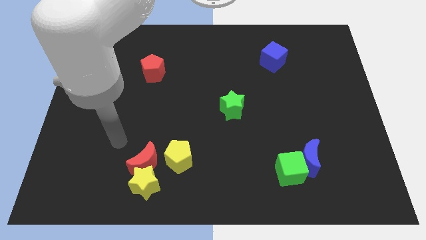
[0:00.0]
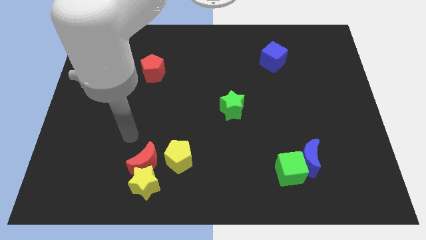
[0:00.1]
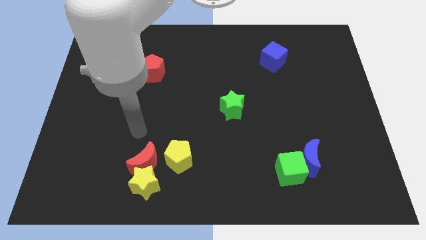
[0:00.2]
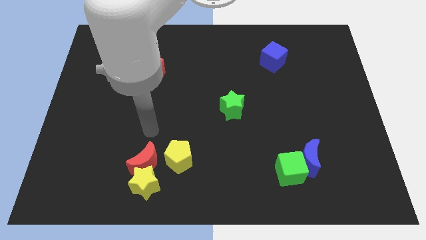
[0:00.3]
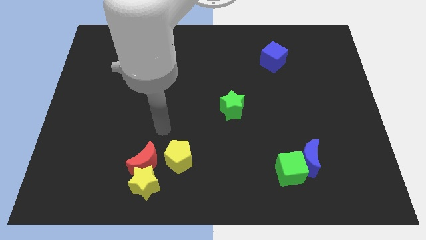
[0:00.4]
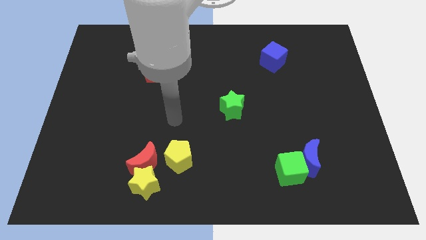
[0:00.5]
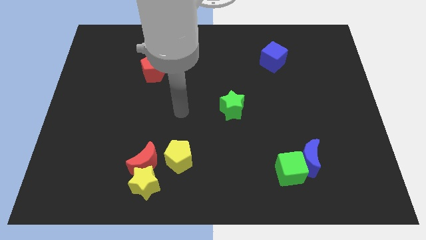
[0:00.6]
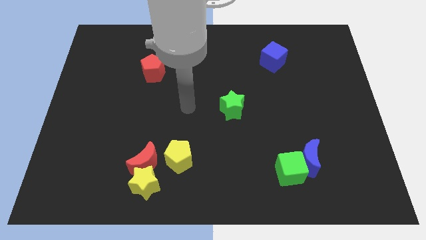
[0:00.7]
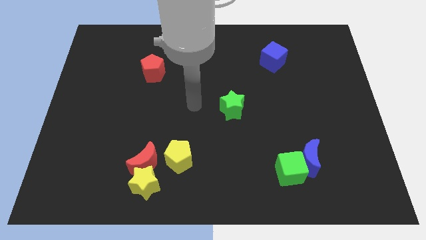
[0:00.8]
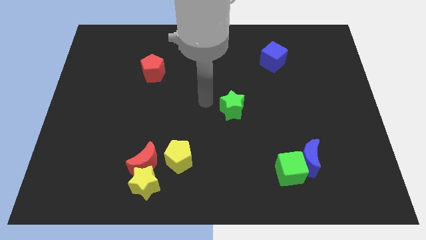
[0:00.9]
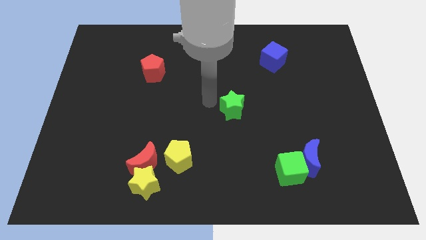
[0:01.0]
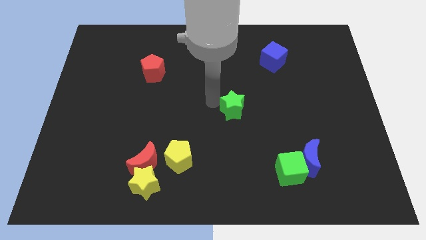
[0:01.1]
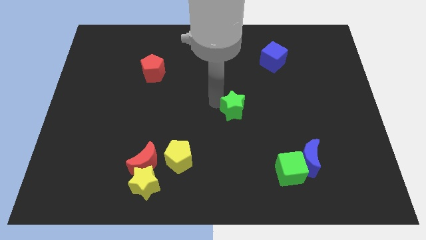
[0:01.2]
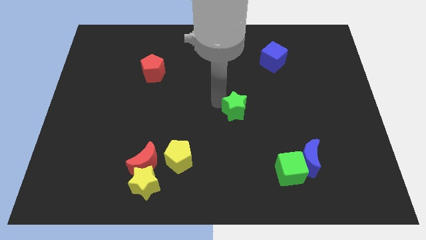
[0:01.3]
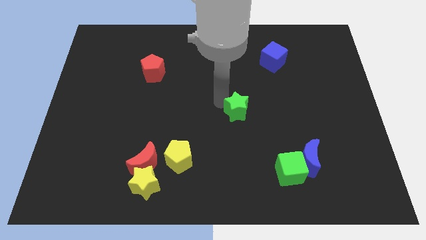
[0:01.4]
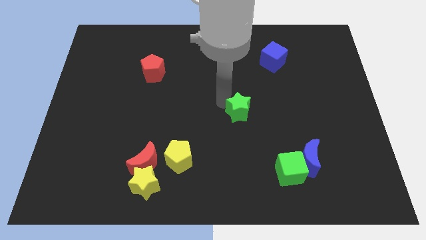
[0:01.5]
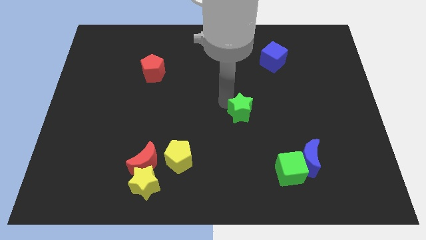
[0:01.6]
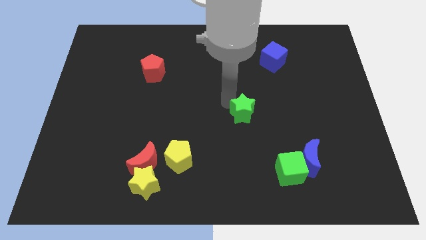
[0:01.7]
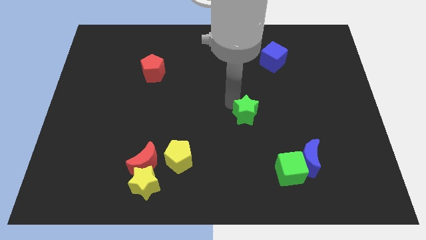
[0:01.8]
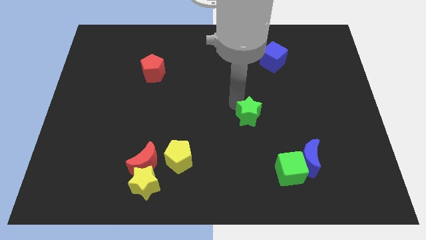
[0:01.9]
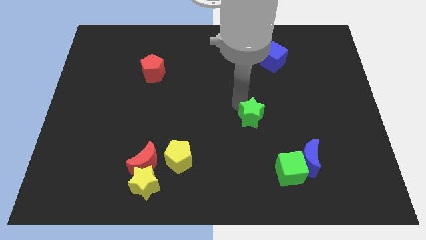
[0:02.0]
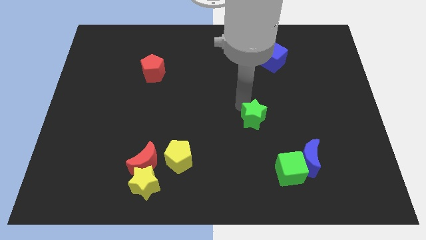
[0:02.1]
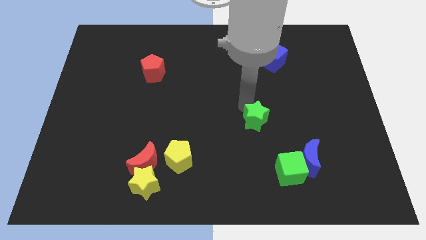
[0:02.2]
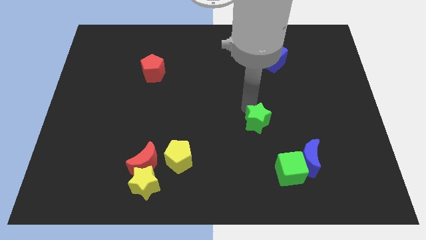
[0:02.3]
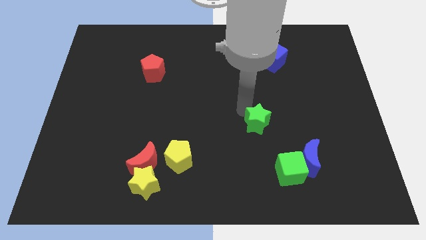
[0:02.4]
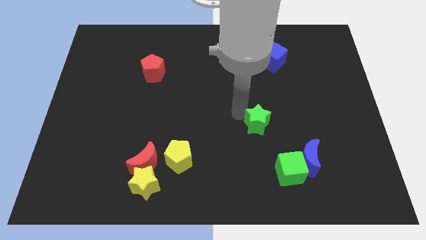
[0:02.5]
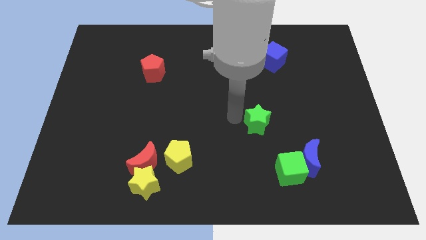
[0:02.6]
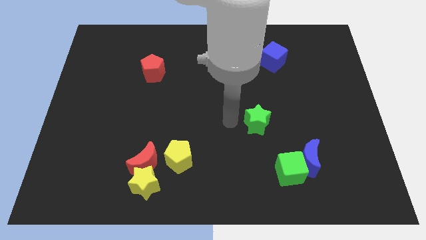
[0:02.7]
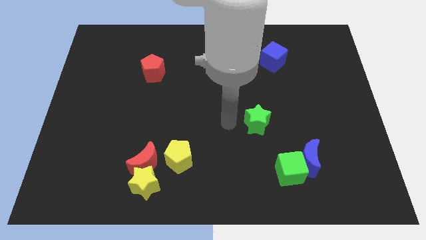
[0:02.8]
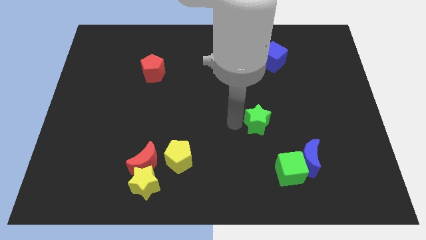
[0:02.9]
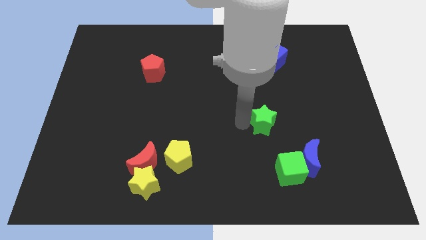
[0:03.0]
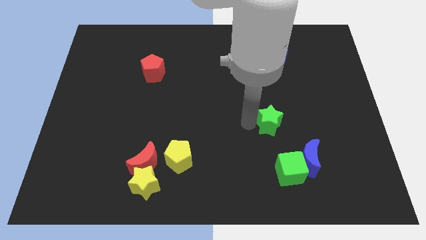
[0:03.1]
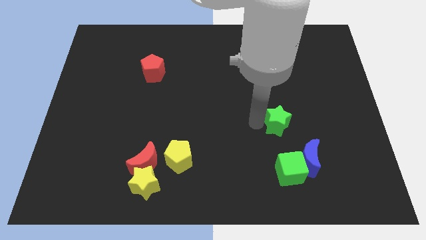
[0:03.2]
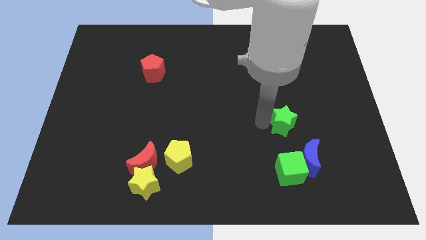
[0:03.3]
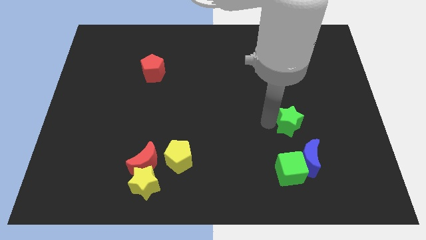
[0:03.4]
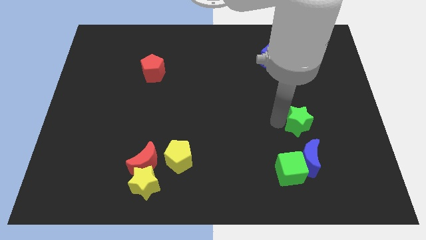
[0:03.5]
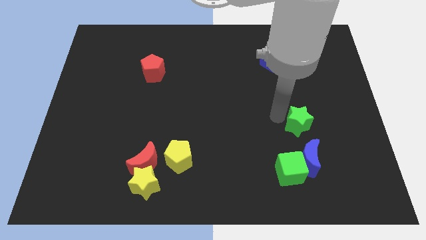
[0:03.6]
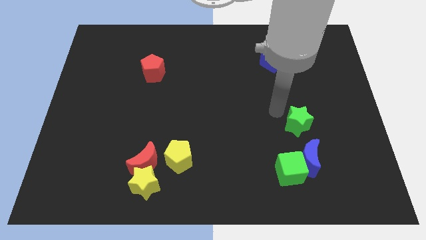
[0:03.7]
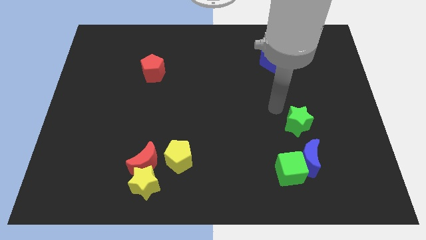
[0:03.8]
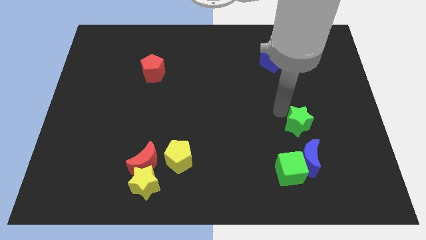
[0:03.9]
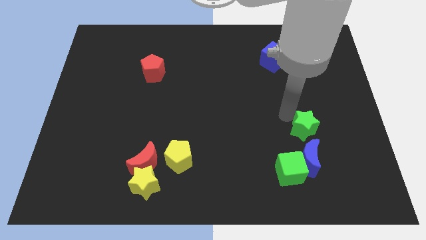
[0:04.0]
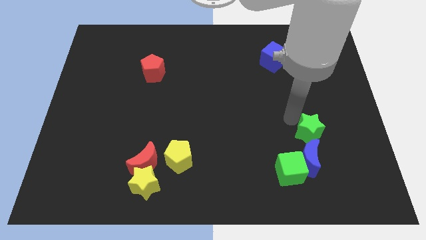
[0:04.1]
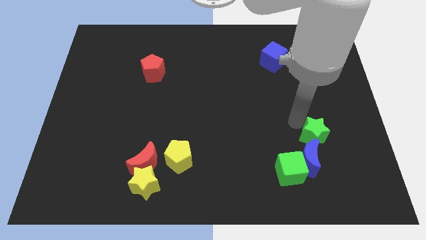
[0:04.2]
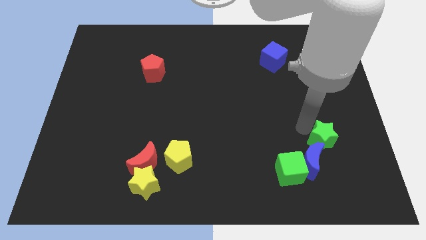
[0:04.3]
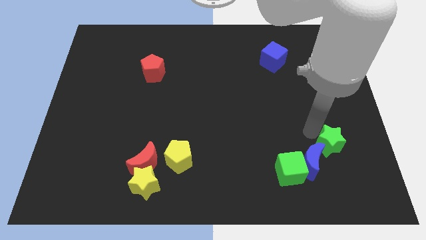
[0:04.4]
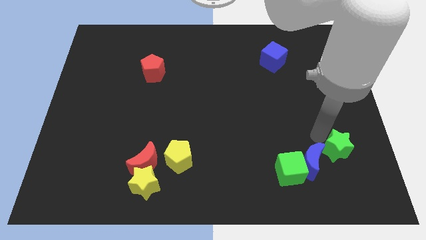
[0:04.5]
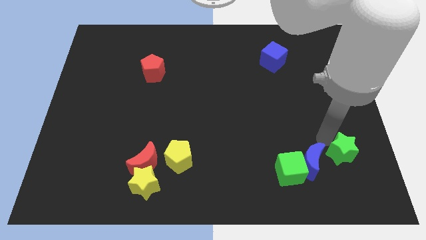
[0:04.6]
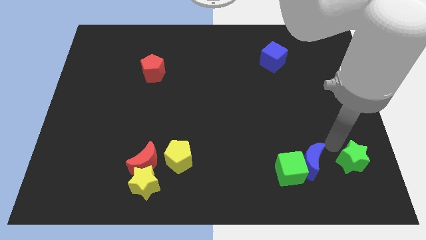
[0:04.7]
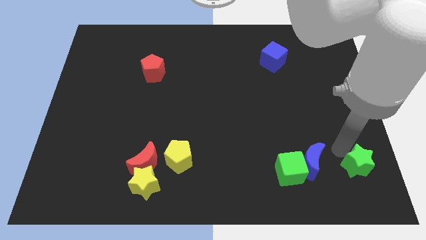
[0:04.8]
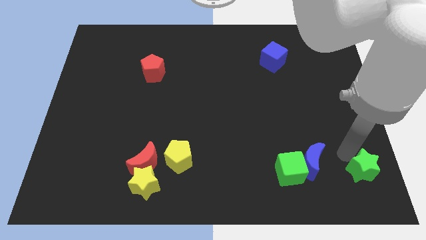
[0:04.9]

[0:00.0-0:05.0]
slide the green star to the bottom right

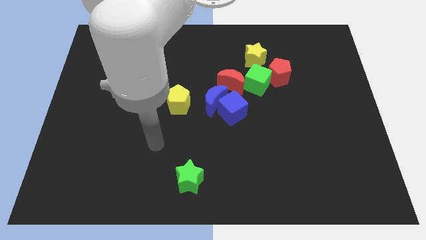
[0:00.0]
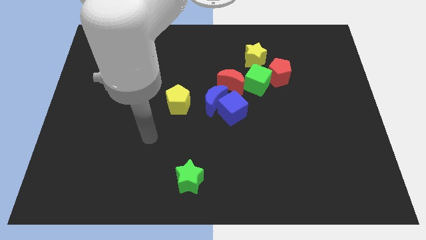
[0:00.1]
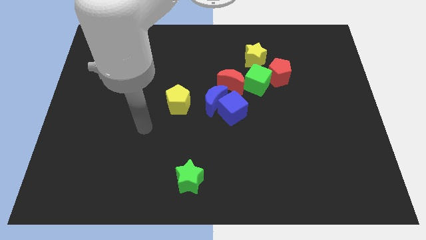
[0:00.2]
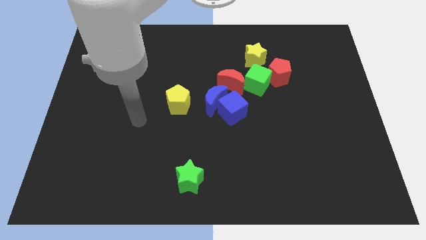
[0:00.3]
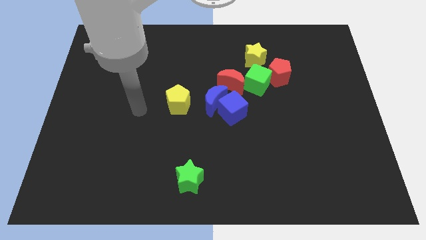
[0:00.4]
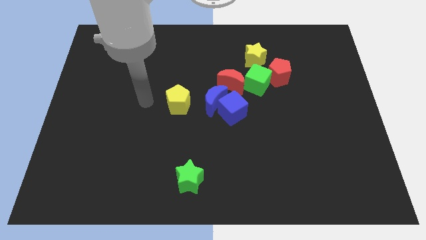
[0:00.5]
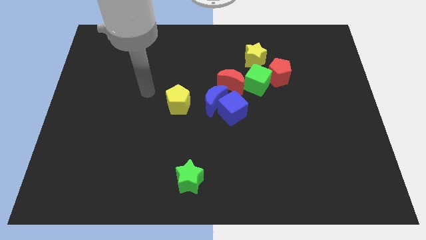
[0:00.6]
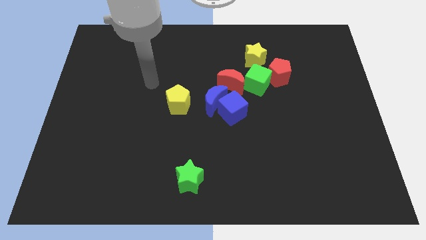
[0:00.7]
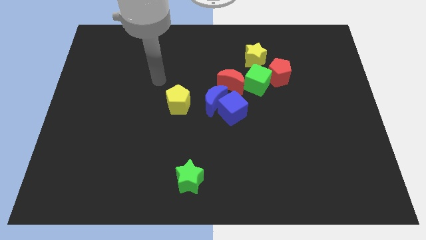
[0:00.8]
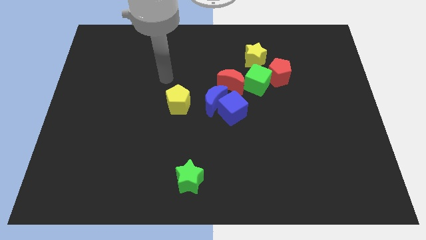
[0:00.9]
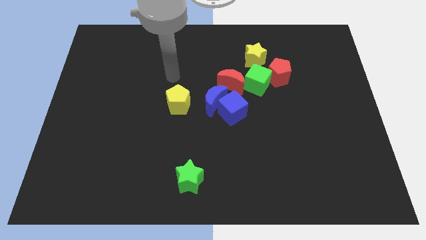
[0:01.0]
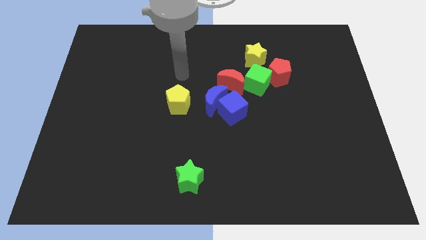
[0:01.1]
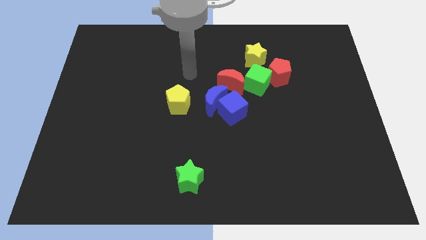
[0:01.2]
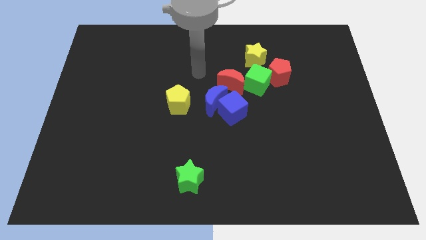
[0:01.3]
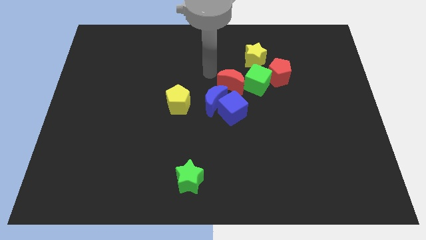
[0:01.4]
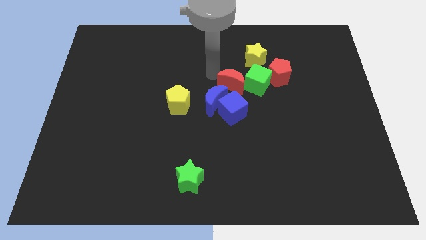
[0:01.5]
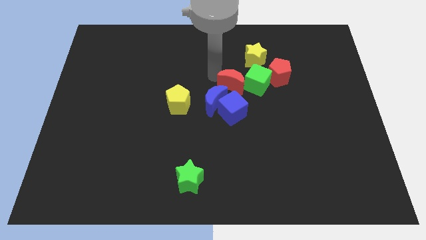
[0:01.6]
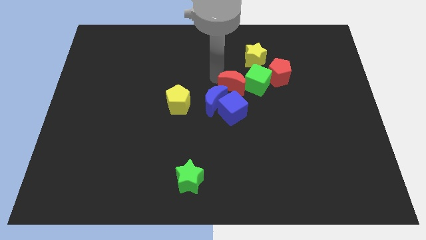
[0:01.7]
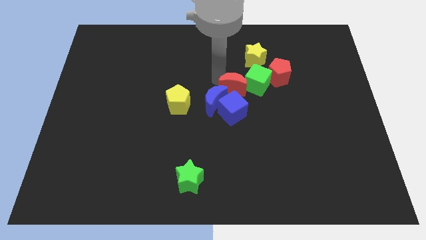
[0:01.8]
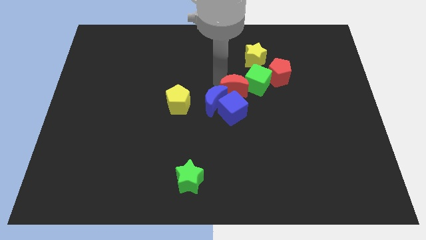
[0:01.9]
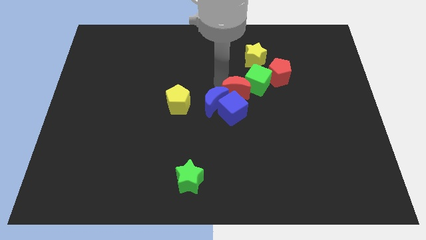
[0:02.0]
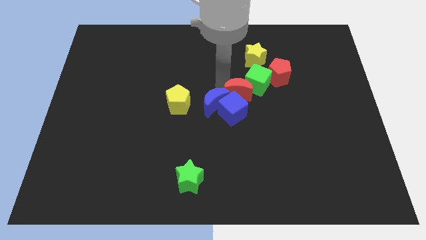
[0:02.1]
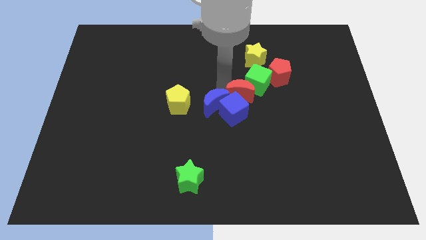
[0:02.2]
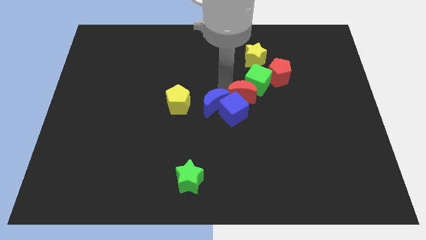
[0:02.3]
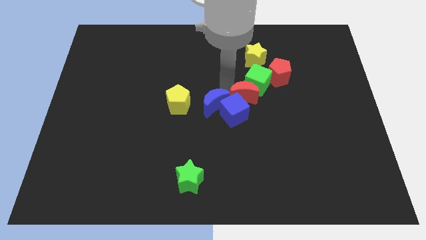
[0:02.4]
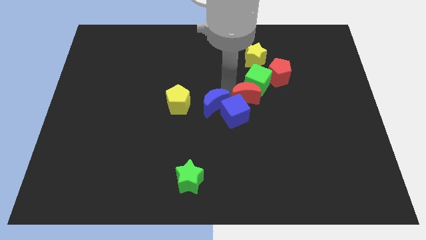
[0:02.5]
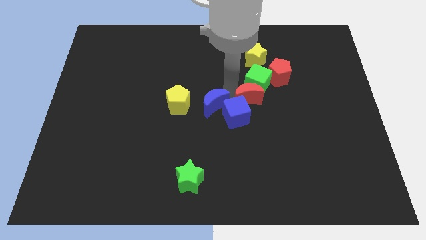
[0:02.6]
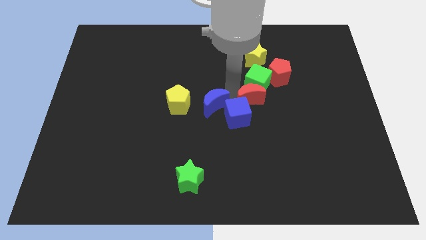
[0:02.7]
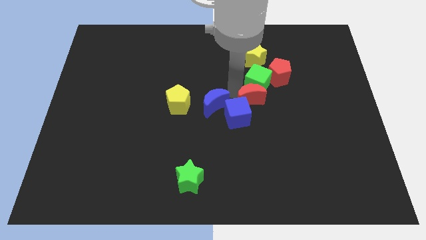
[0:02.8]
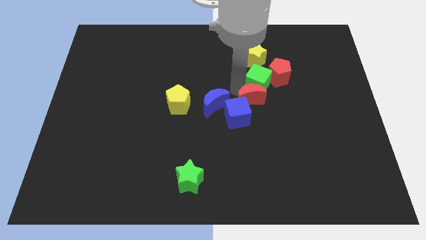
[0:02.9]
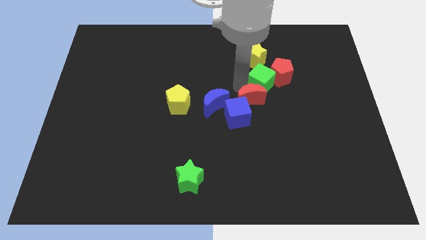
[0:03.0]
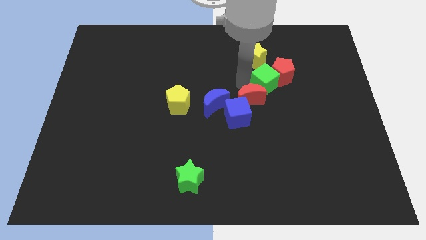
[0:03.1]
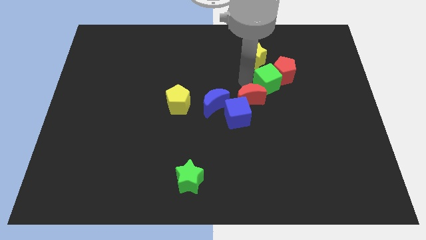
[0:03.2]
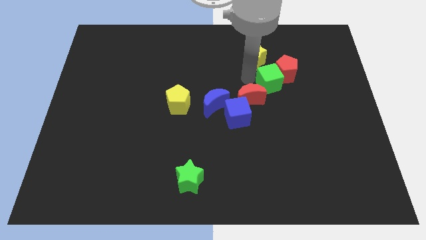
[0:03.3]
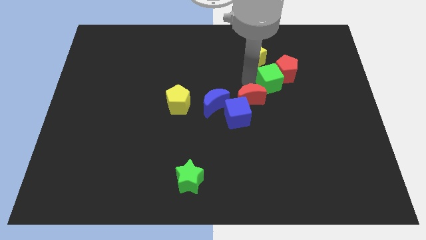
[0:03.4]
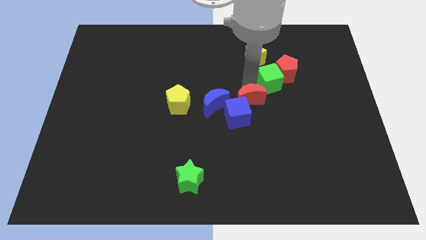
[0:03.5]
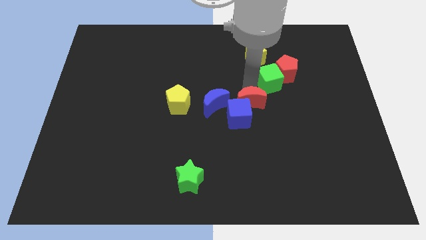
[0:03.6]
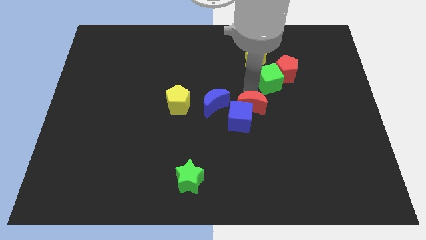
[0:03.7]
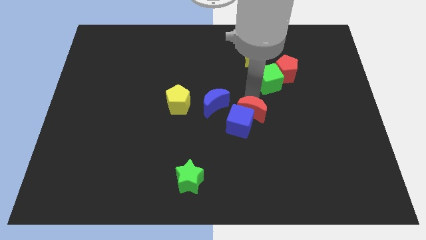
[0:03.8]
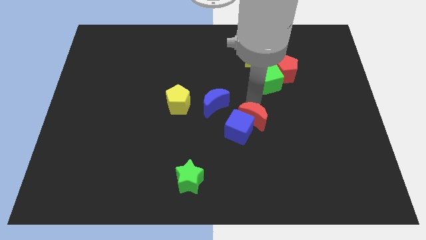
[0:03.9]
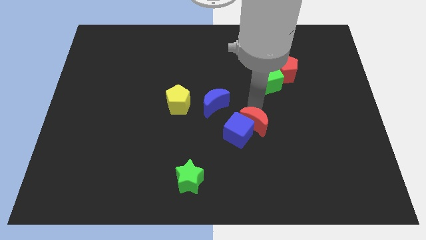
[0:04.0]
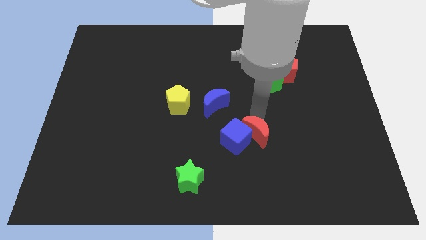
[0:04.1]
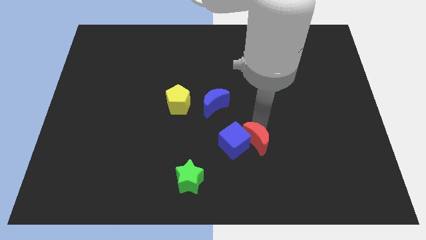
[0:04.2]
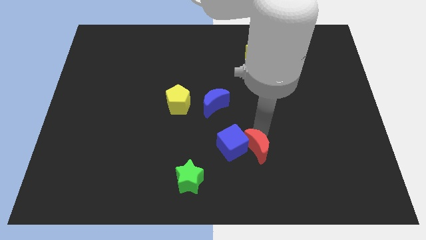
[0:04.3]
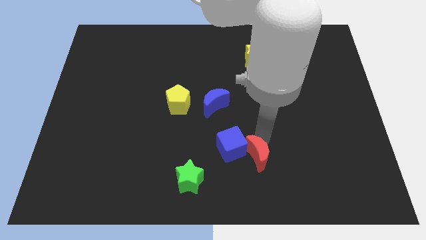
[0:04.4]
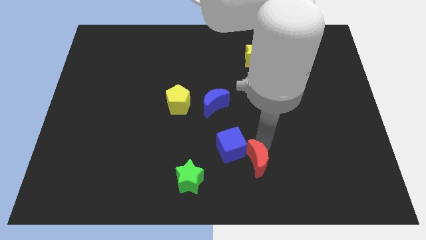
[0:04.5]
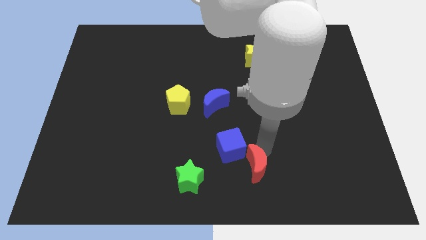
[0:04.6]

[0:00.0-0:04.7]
slide the red moon to the bottom
